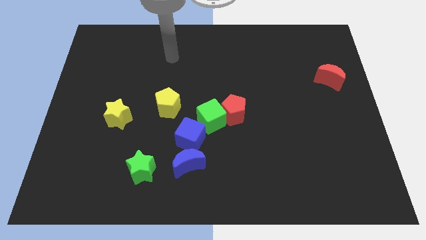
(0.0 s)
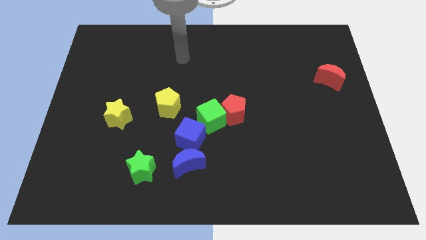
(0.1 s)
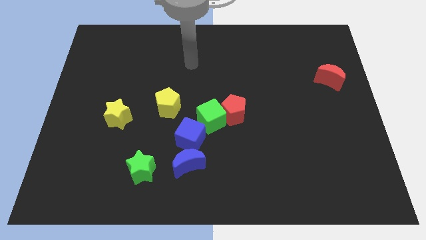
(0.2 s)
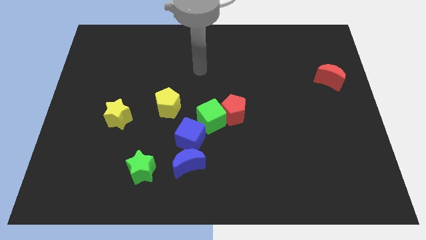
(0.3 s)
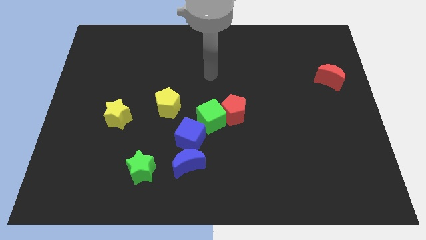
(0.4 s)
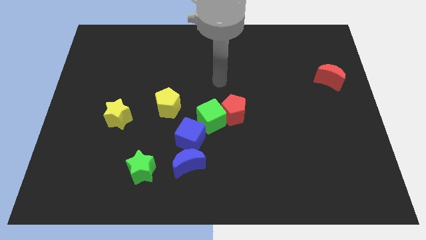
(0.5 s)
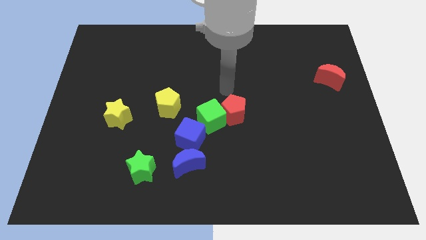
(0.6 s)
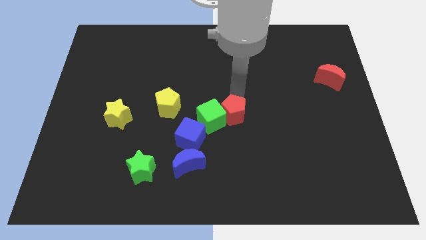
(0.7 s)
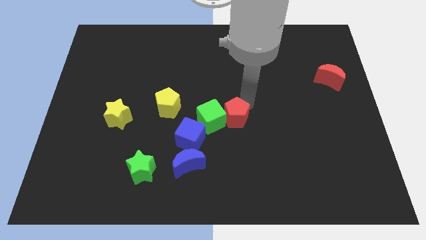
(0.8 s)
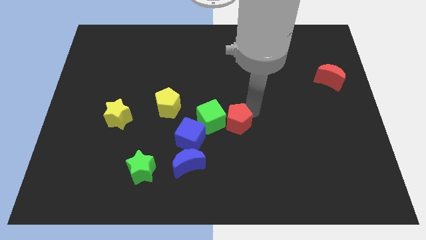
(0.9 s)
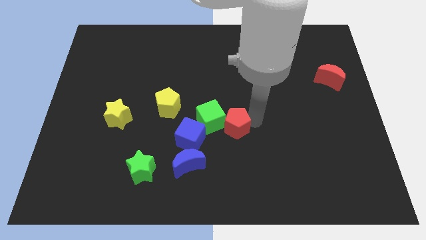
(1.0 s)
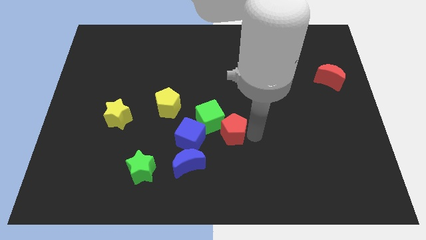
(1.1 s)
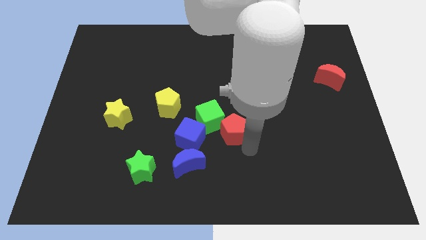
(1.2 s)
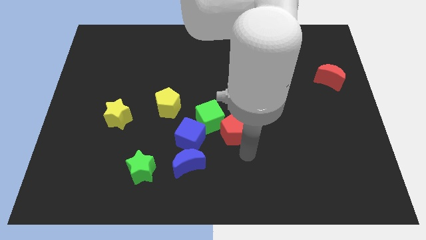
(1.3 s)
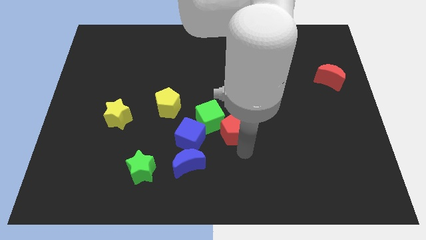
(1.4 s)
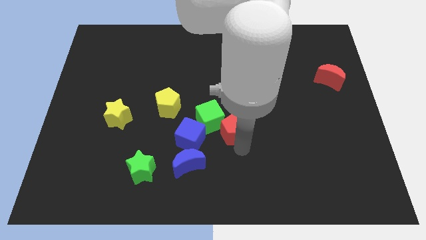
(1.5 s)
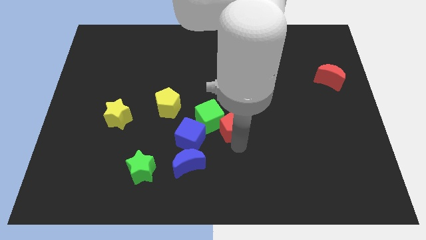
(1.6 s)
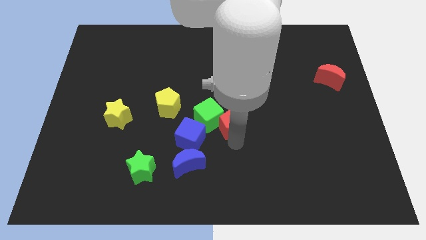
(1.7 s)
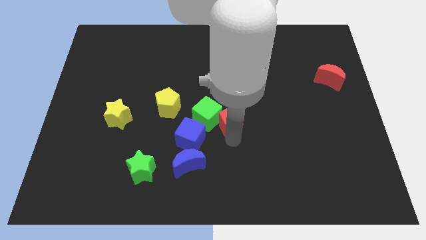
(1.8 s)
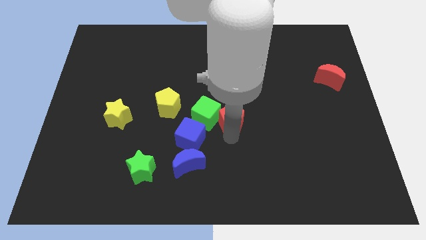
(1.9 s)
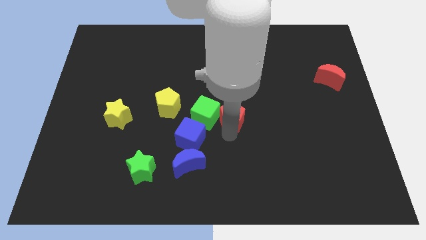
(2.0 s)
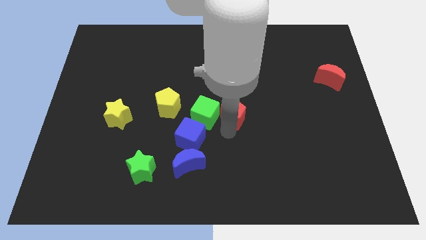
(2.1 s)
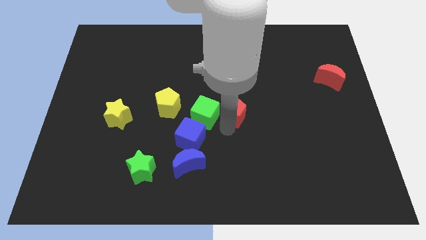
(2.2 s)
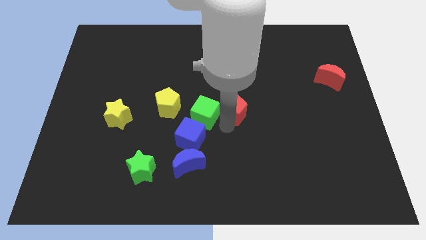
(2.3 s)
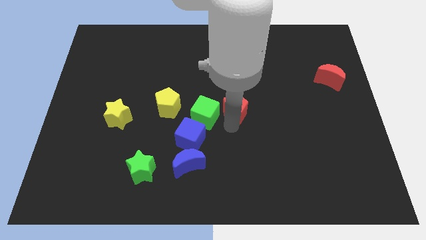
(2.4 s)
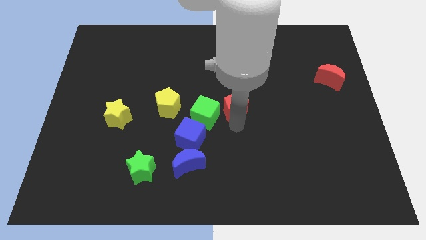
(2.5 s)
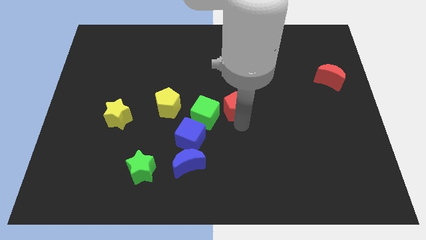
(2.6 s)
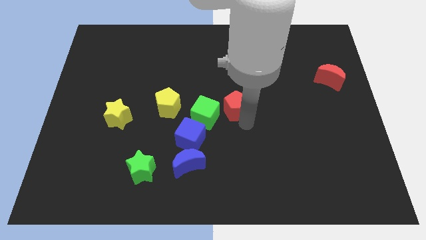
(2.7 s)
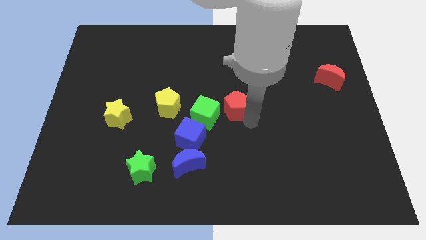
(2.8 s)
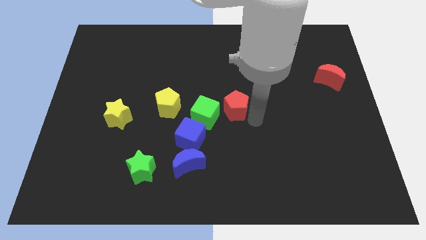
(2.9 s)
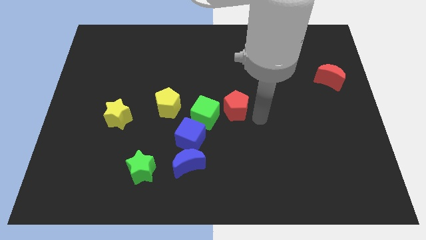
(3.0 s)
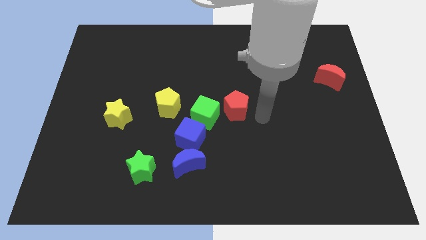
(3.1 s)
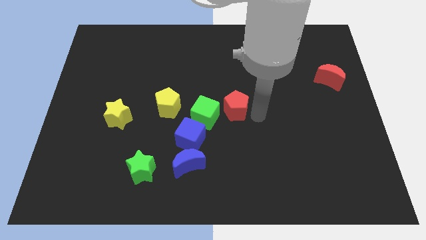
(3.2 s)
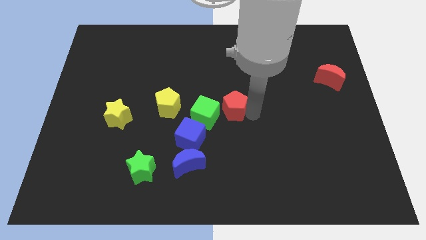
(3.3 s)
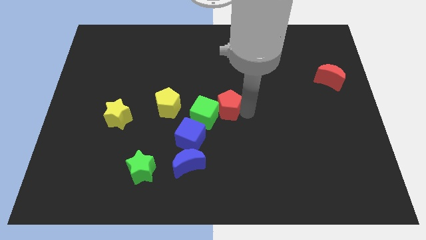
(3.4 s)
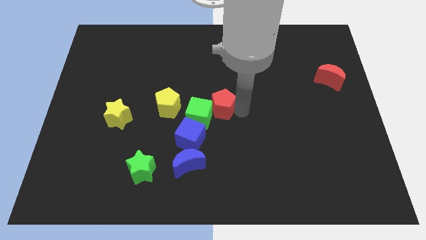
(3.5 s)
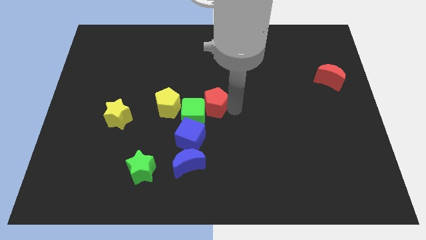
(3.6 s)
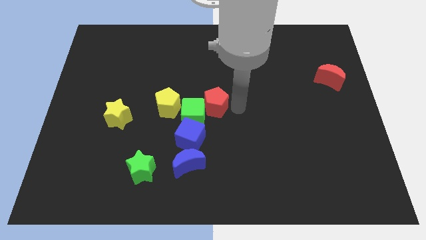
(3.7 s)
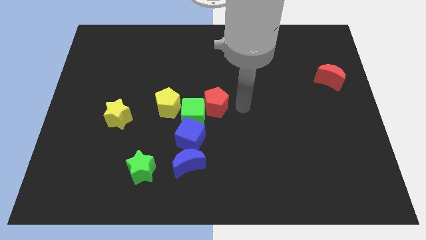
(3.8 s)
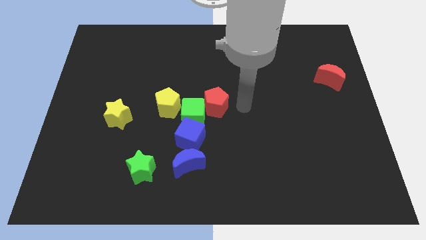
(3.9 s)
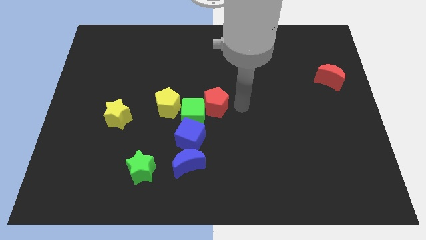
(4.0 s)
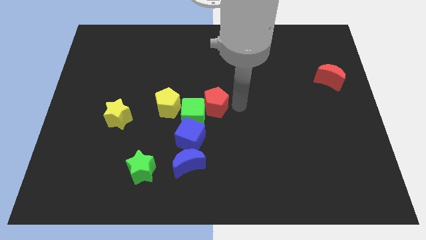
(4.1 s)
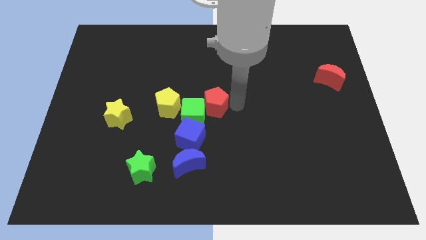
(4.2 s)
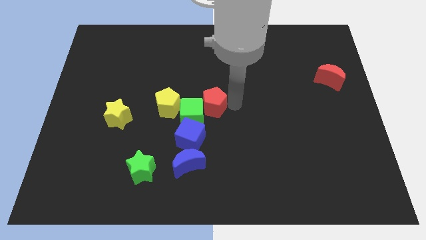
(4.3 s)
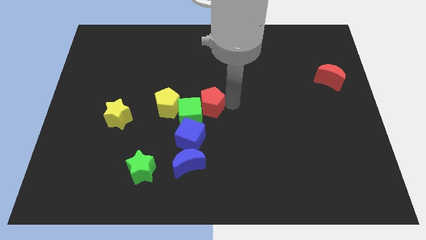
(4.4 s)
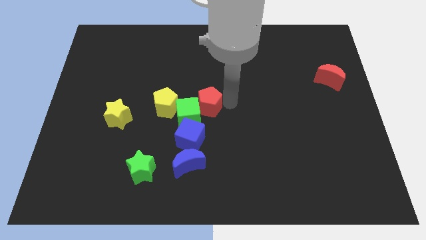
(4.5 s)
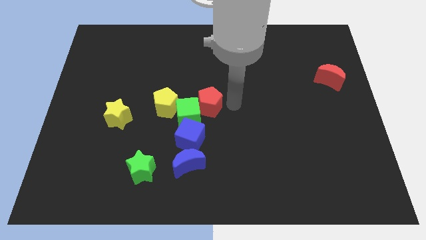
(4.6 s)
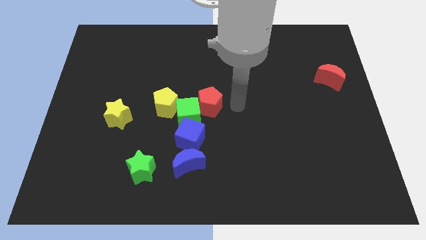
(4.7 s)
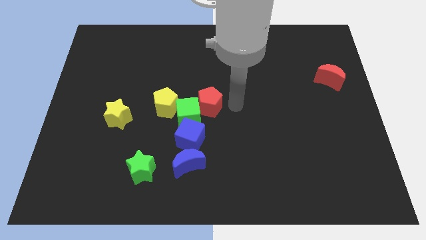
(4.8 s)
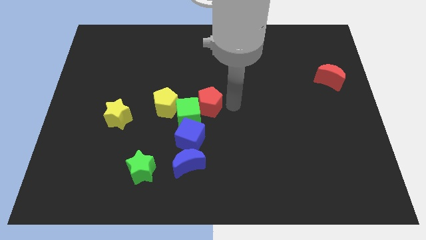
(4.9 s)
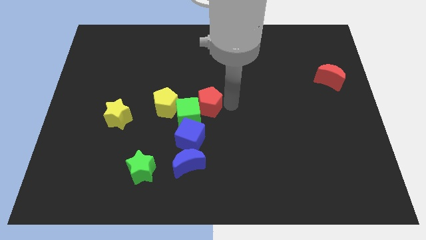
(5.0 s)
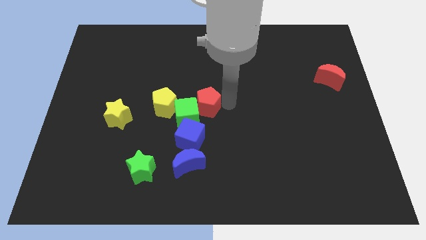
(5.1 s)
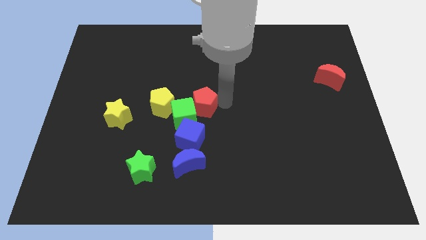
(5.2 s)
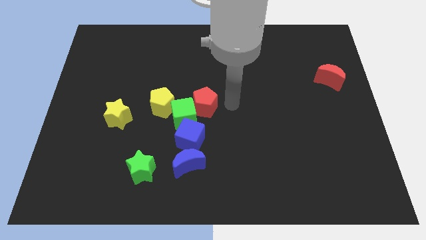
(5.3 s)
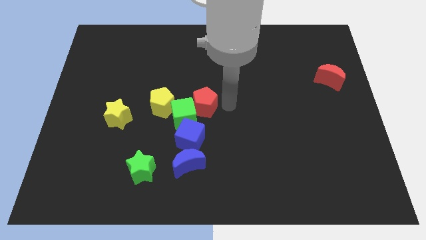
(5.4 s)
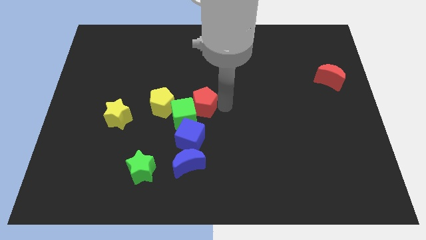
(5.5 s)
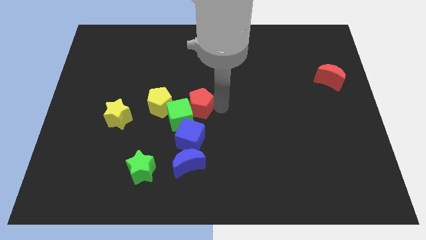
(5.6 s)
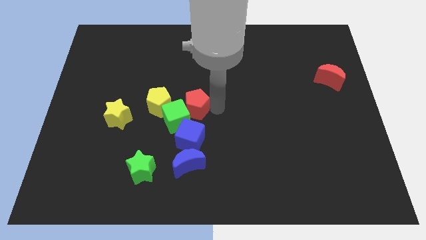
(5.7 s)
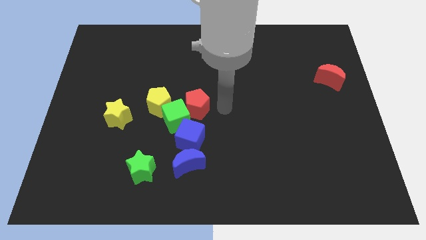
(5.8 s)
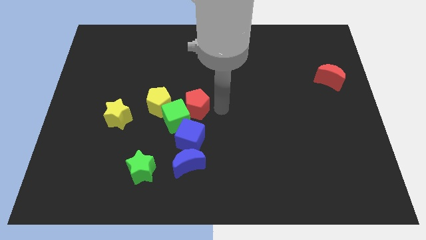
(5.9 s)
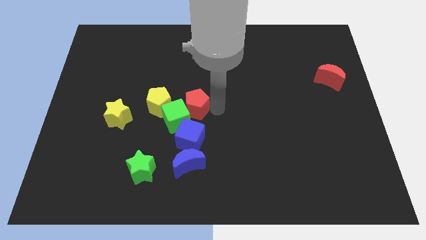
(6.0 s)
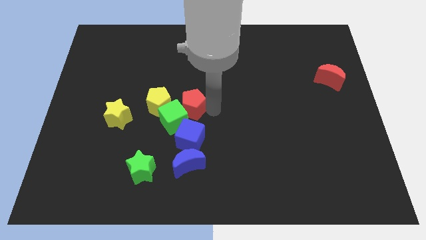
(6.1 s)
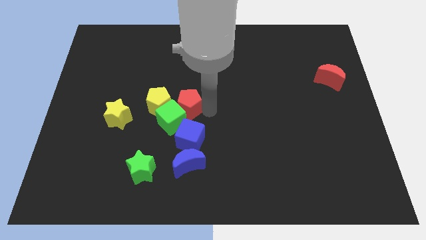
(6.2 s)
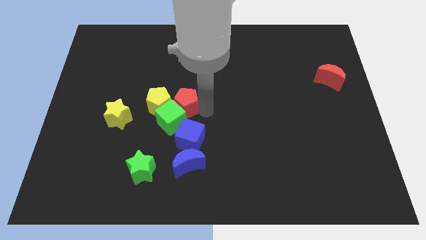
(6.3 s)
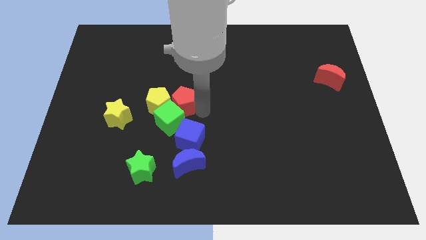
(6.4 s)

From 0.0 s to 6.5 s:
slide the red pentagon next to the yellow pentagon

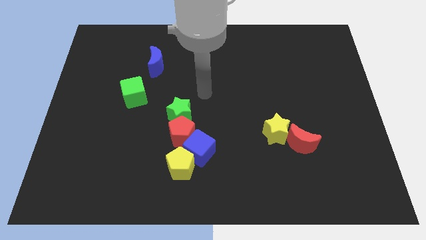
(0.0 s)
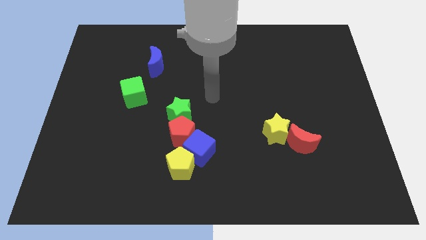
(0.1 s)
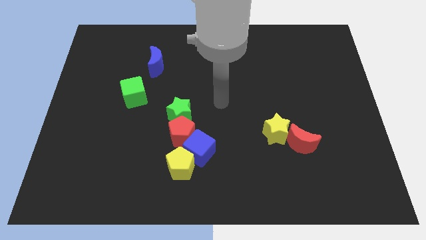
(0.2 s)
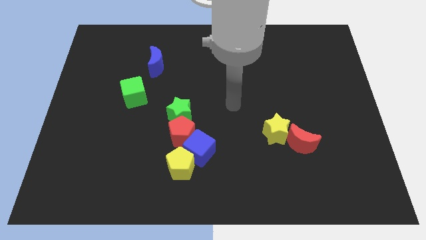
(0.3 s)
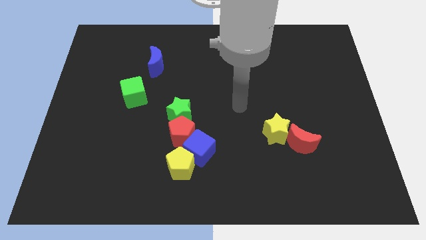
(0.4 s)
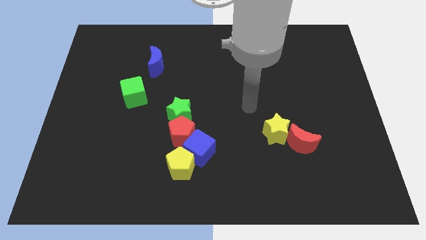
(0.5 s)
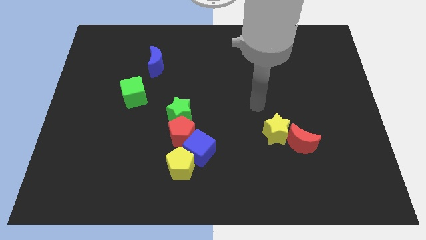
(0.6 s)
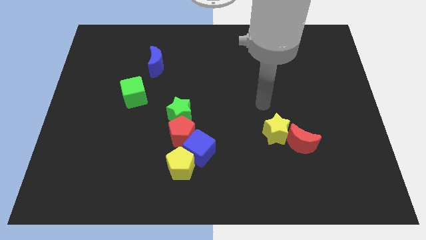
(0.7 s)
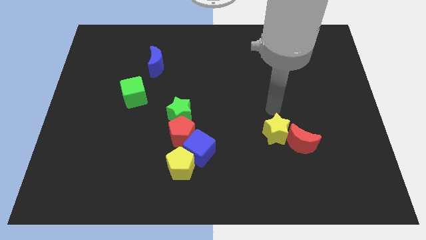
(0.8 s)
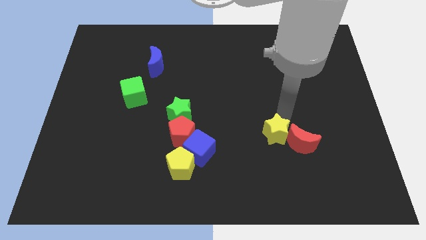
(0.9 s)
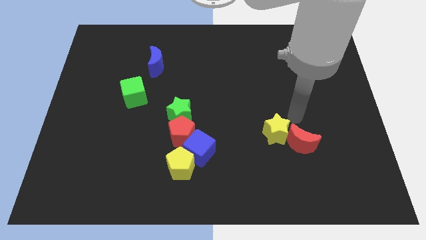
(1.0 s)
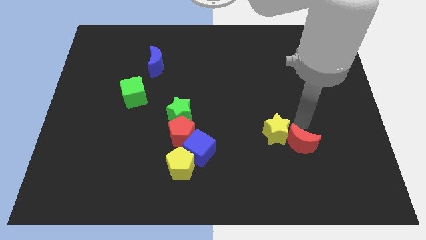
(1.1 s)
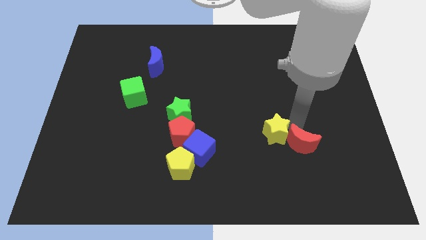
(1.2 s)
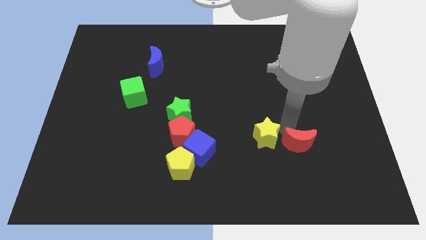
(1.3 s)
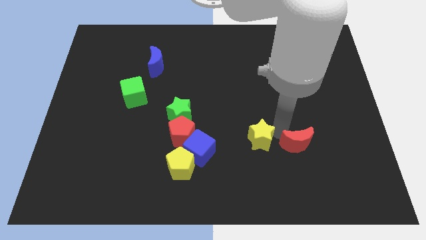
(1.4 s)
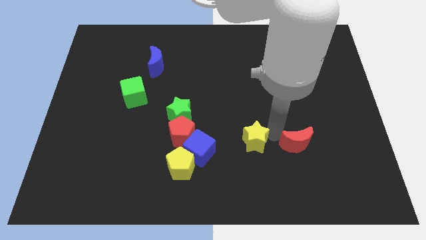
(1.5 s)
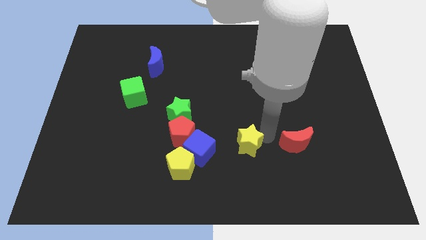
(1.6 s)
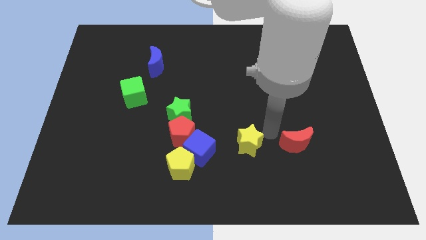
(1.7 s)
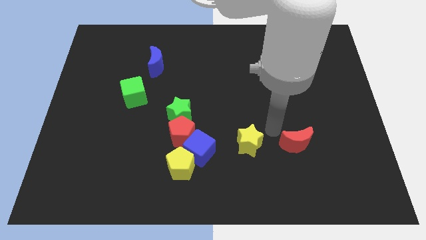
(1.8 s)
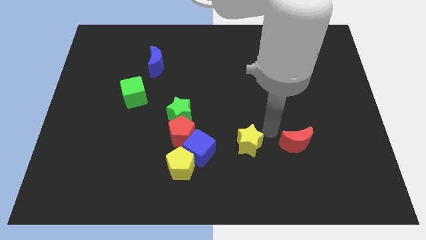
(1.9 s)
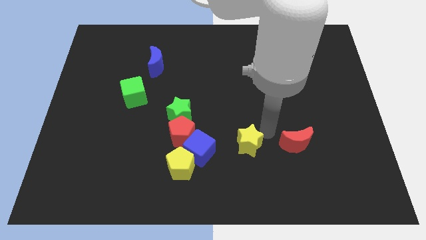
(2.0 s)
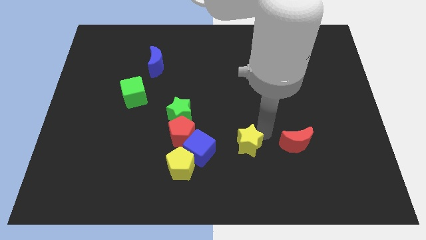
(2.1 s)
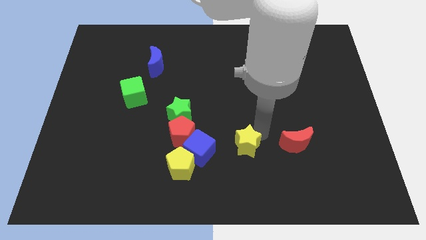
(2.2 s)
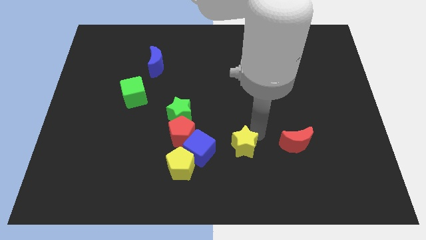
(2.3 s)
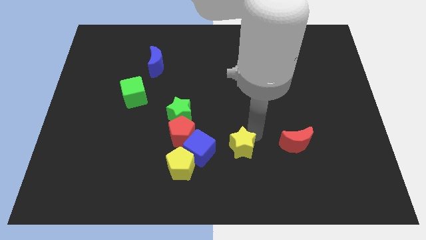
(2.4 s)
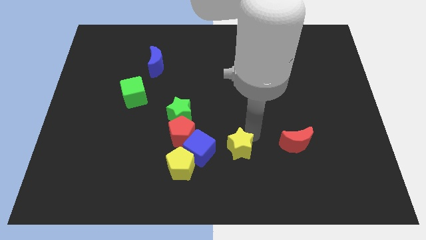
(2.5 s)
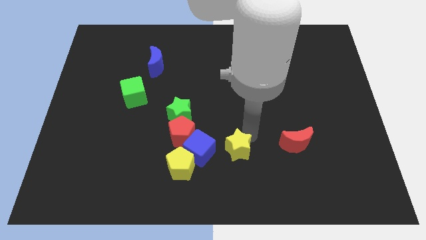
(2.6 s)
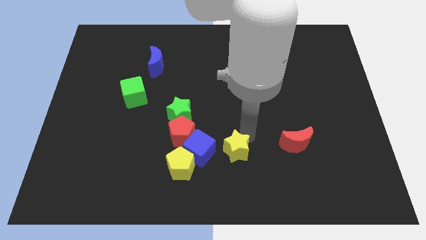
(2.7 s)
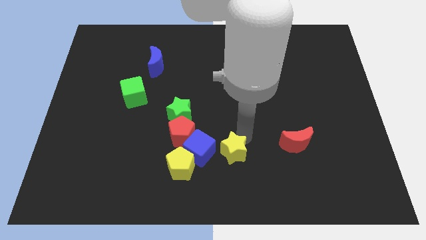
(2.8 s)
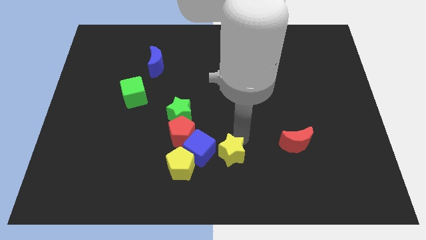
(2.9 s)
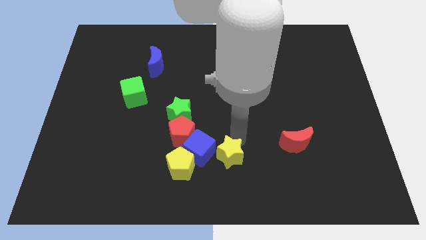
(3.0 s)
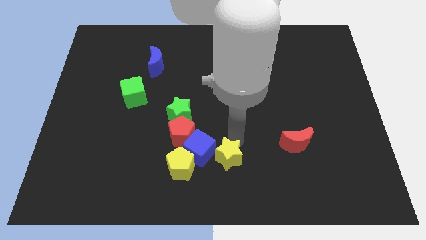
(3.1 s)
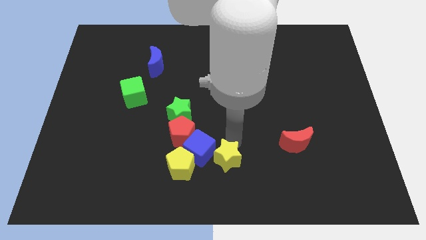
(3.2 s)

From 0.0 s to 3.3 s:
move the yellow star towards the blue cube
